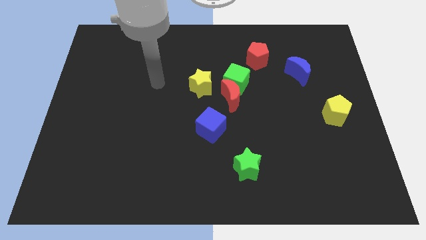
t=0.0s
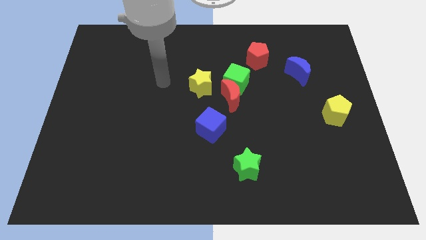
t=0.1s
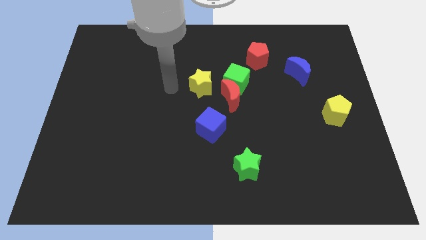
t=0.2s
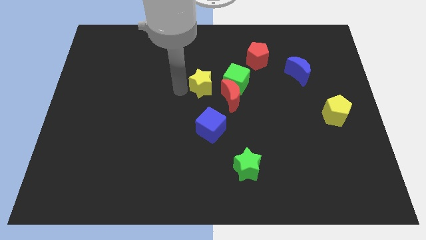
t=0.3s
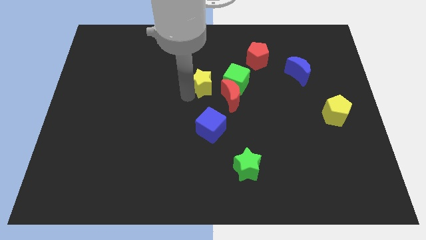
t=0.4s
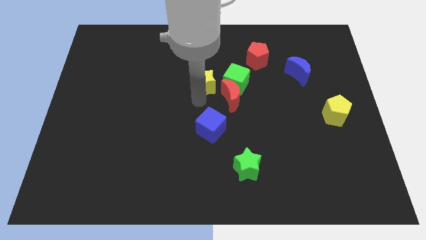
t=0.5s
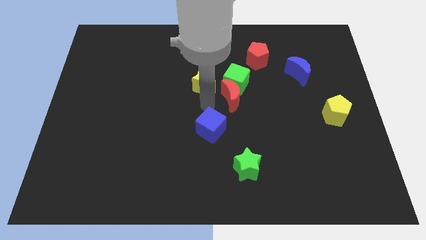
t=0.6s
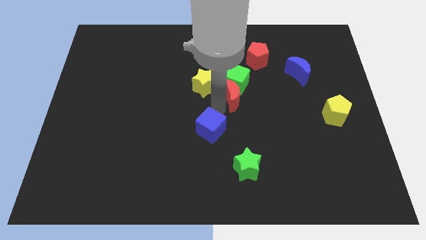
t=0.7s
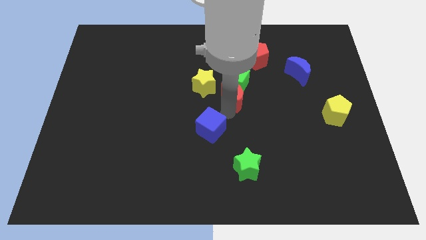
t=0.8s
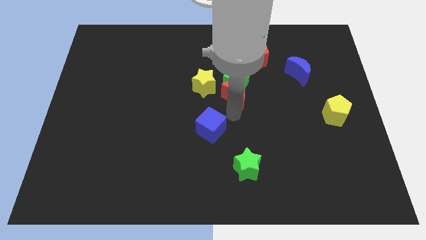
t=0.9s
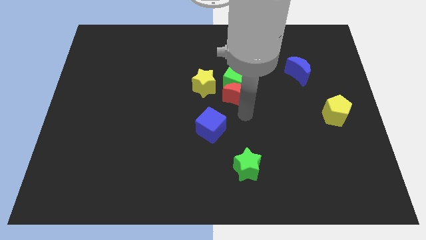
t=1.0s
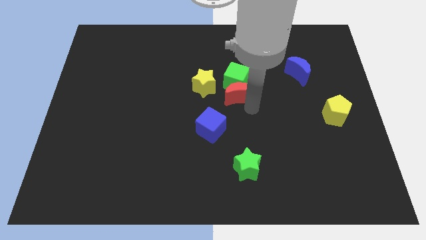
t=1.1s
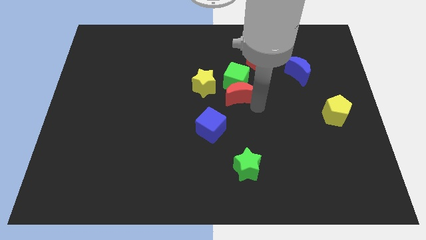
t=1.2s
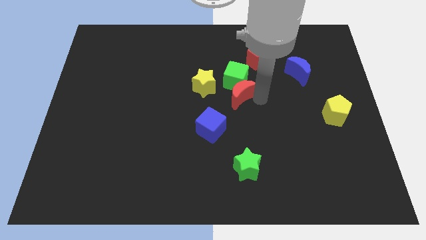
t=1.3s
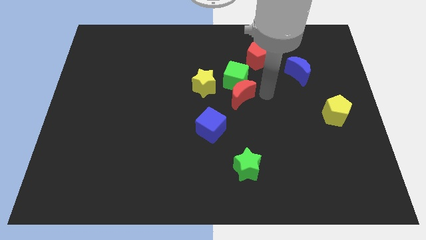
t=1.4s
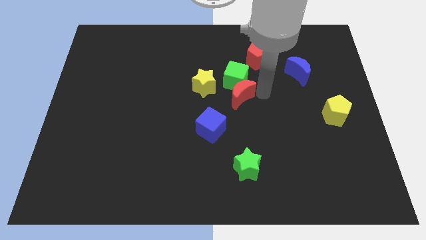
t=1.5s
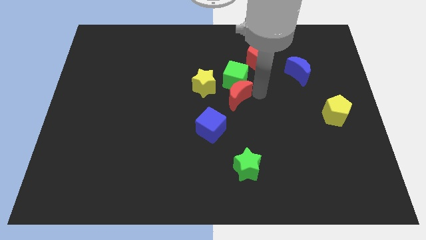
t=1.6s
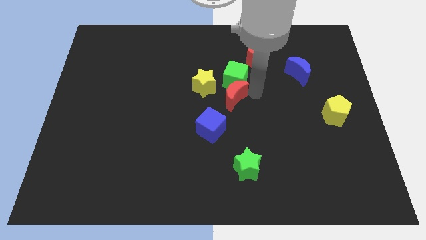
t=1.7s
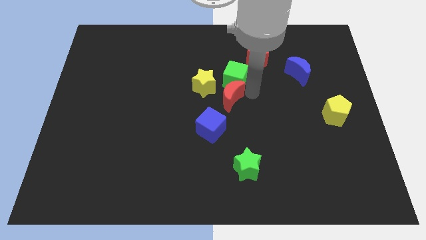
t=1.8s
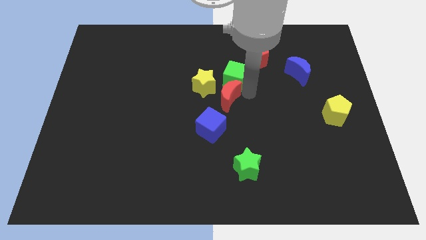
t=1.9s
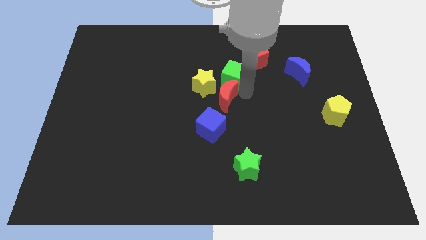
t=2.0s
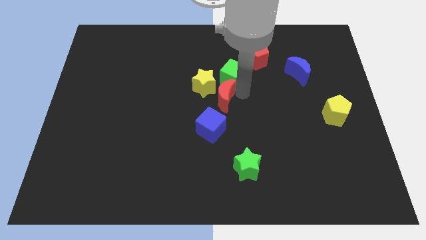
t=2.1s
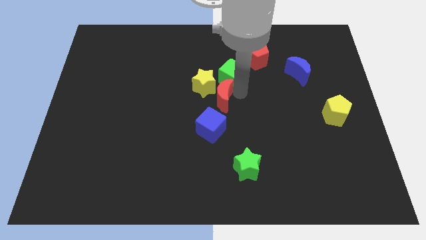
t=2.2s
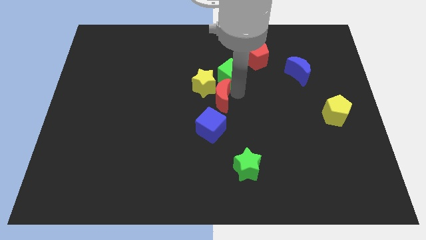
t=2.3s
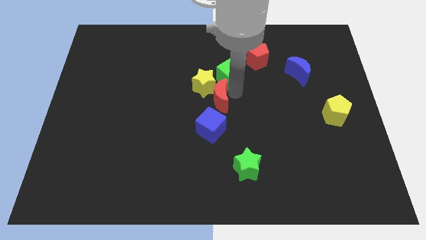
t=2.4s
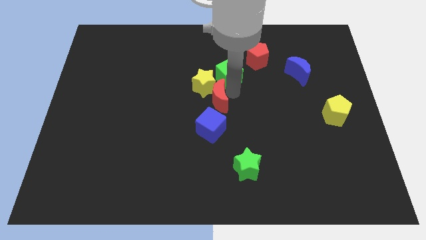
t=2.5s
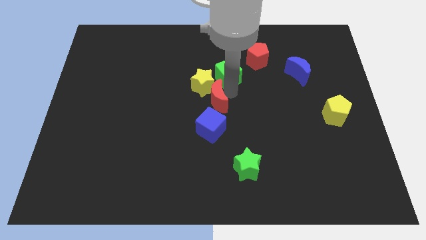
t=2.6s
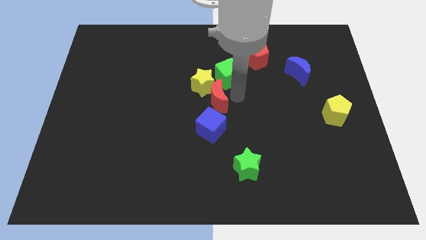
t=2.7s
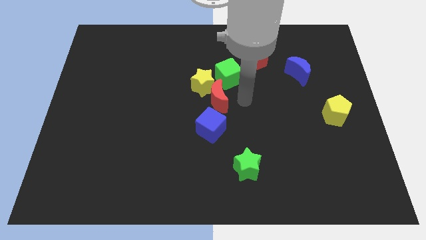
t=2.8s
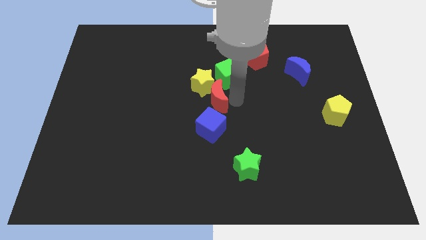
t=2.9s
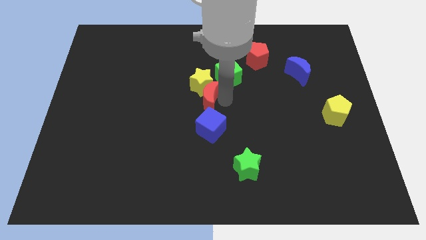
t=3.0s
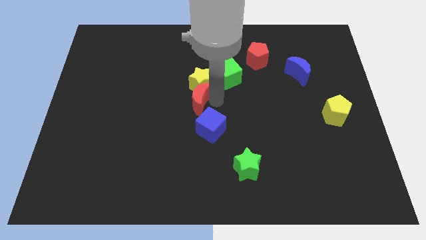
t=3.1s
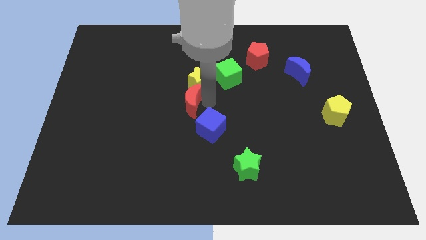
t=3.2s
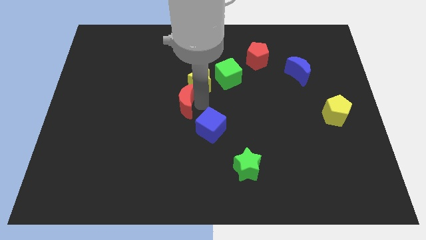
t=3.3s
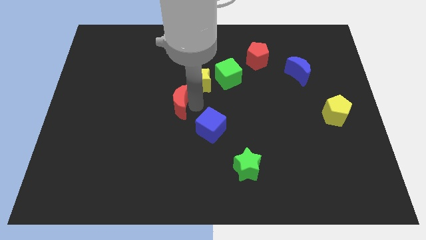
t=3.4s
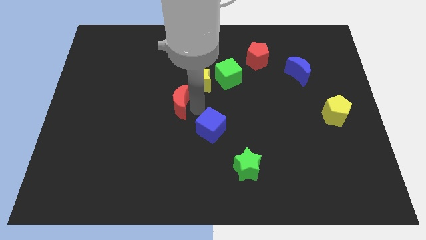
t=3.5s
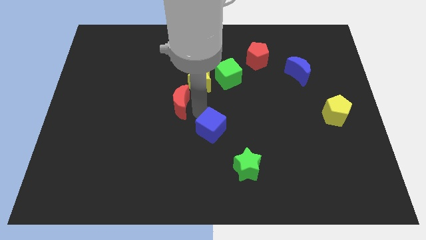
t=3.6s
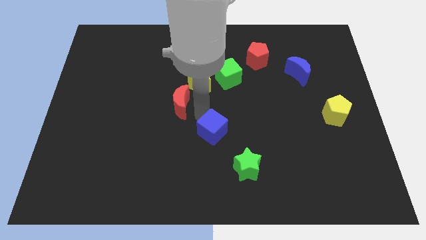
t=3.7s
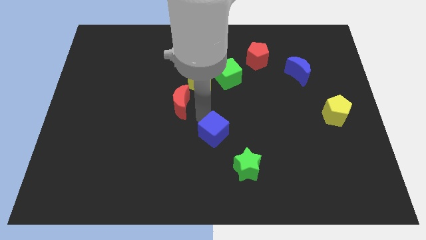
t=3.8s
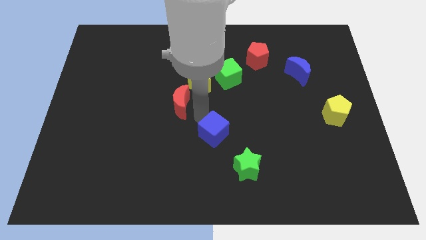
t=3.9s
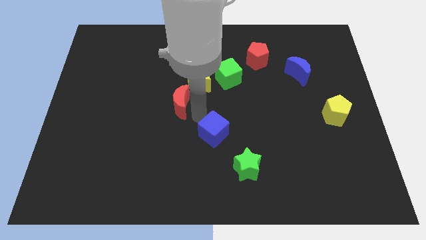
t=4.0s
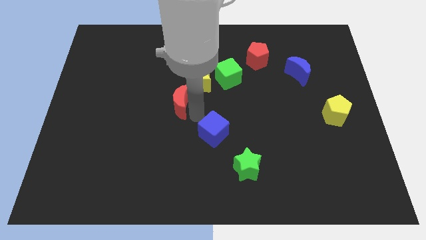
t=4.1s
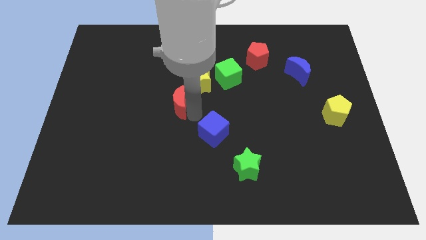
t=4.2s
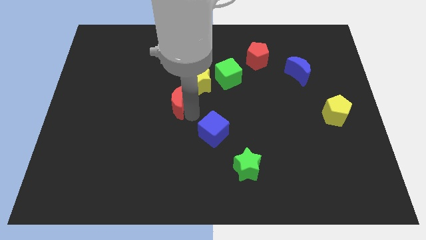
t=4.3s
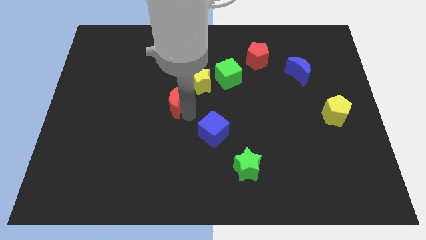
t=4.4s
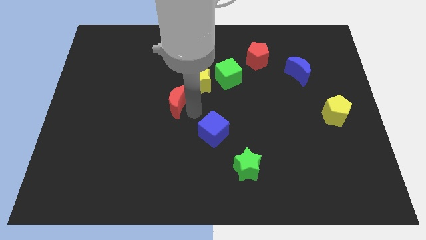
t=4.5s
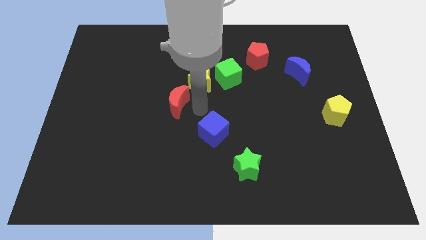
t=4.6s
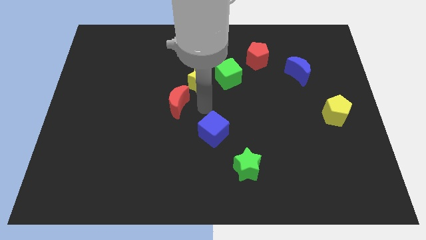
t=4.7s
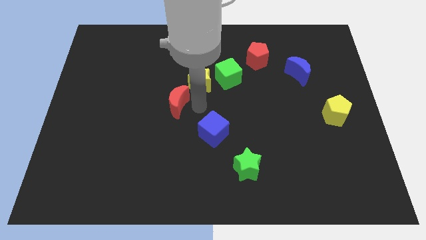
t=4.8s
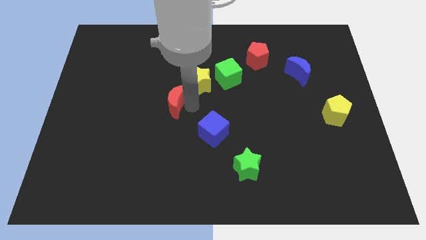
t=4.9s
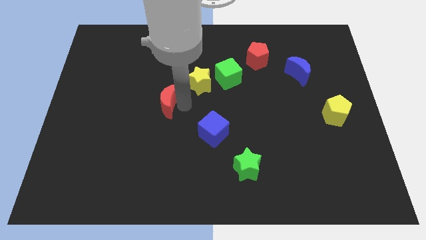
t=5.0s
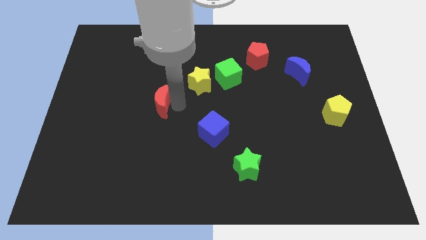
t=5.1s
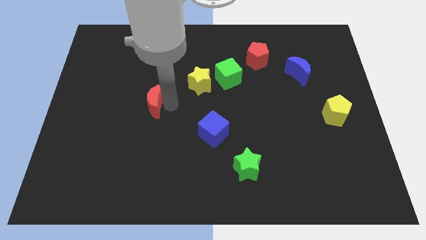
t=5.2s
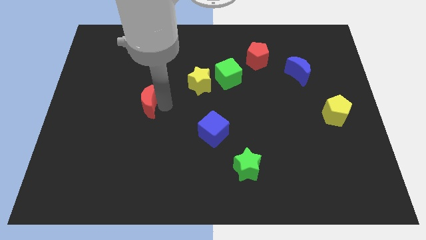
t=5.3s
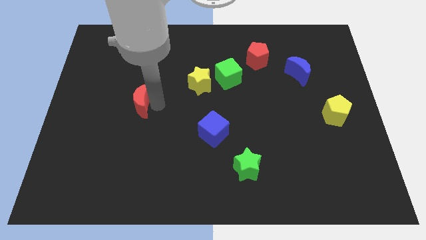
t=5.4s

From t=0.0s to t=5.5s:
slide the red moon to the left

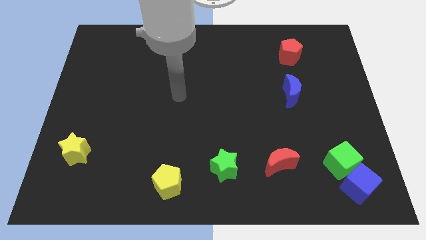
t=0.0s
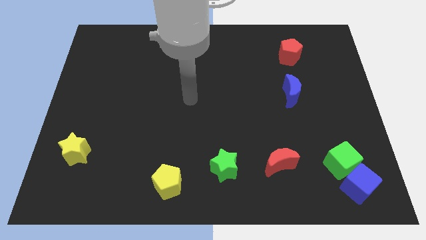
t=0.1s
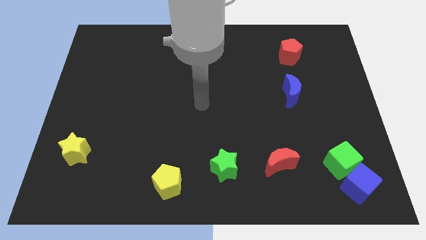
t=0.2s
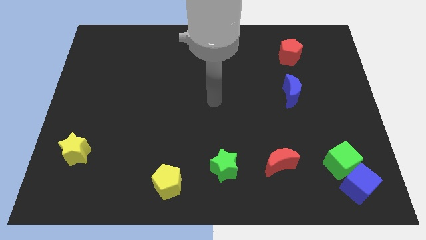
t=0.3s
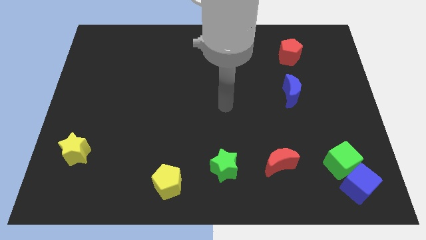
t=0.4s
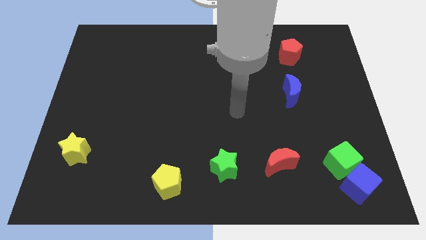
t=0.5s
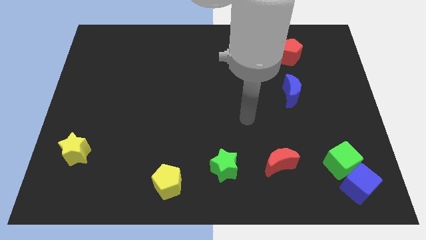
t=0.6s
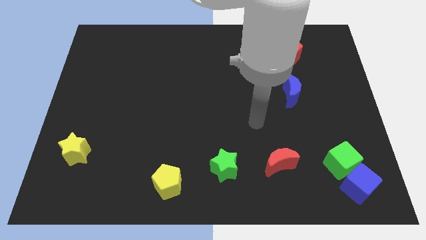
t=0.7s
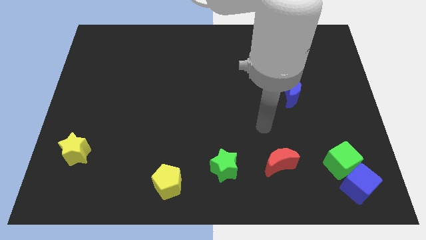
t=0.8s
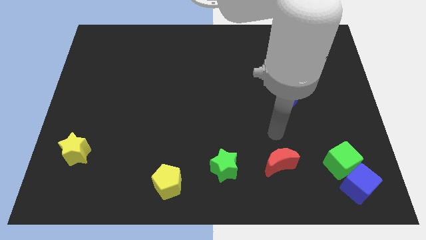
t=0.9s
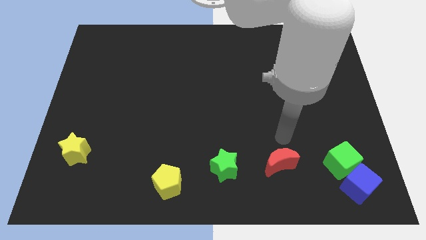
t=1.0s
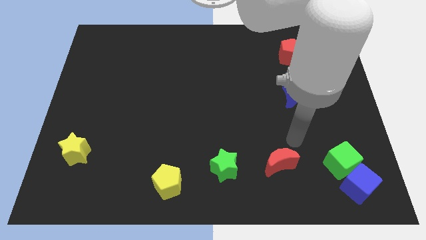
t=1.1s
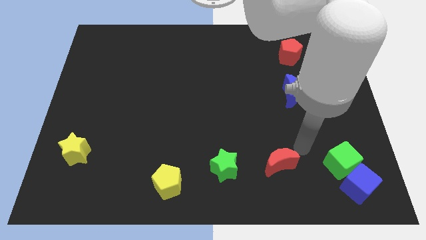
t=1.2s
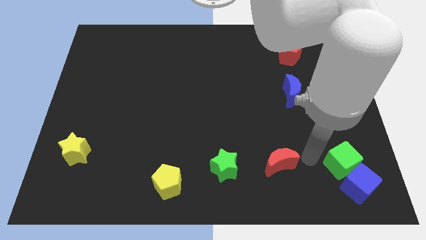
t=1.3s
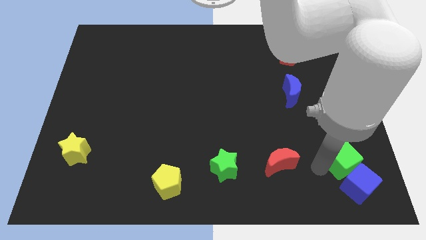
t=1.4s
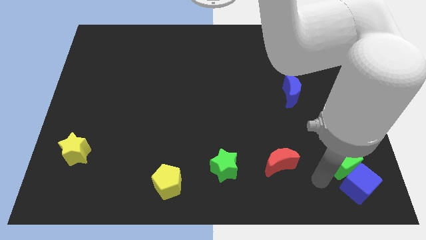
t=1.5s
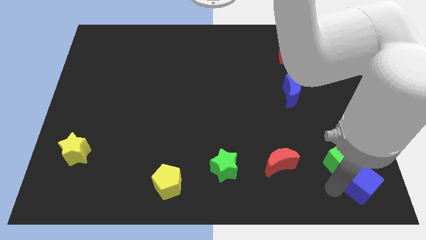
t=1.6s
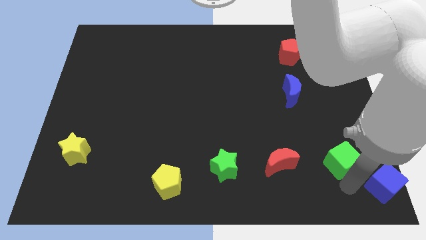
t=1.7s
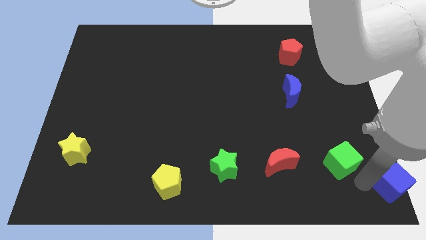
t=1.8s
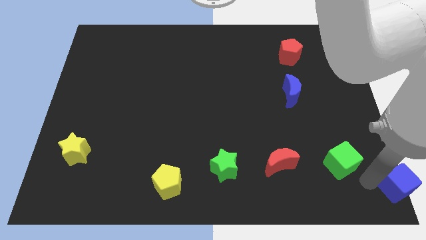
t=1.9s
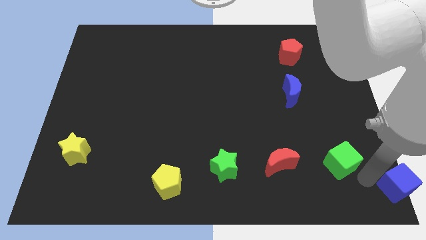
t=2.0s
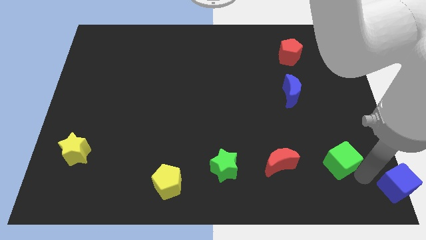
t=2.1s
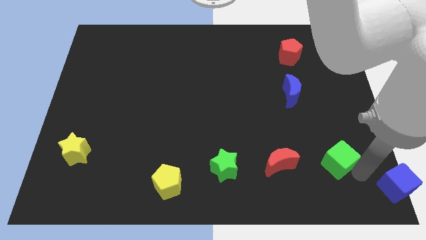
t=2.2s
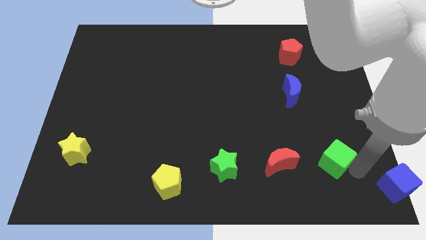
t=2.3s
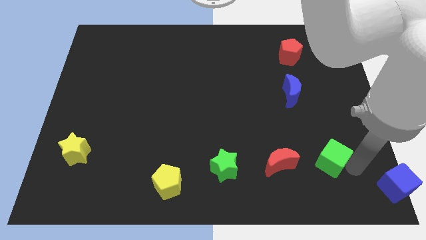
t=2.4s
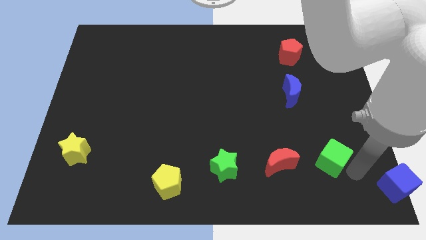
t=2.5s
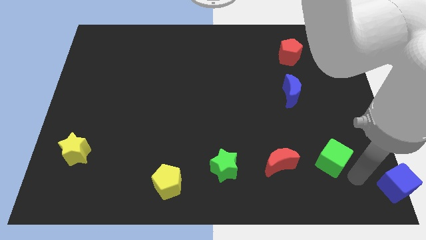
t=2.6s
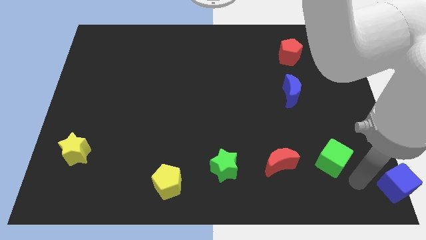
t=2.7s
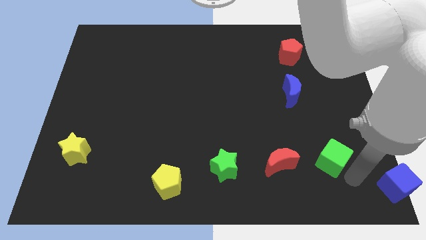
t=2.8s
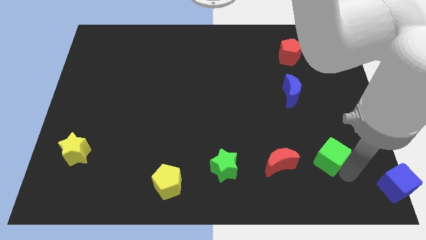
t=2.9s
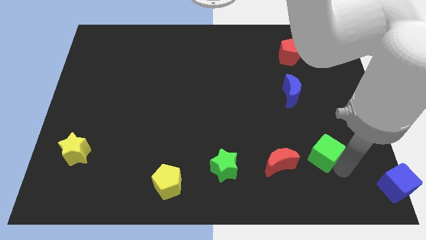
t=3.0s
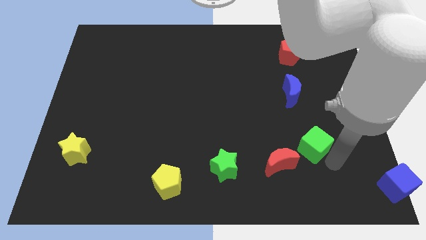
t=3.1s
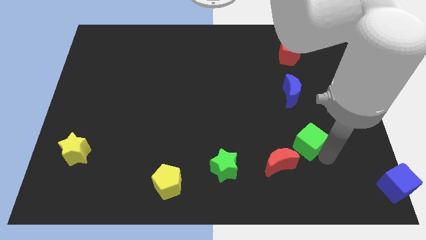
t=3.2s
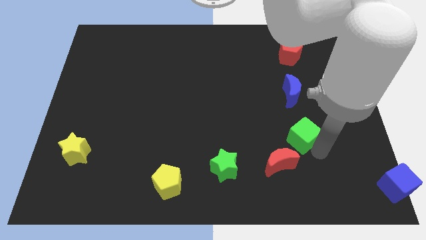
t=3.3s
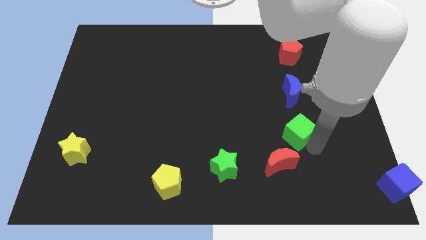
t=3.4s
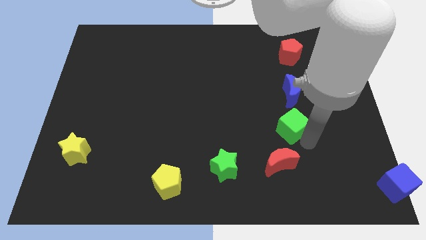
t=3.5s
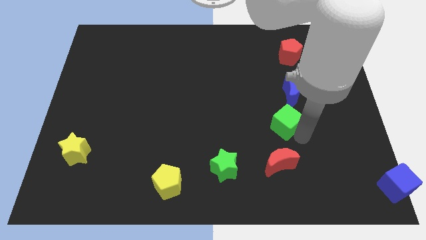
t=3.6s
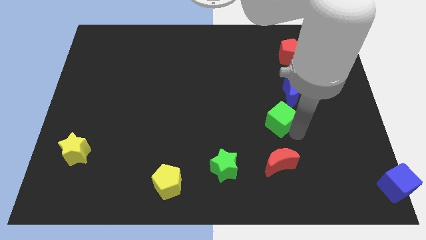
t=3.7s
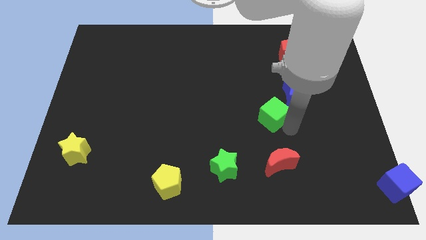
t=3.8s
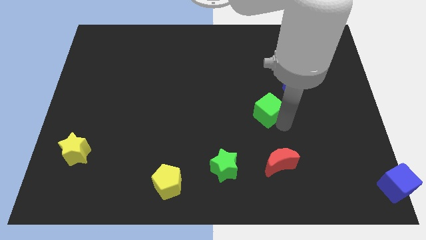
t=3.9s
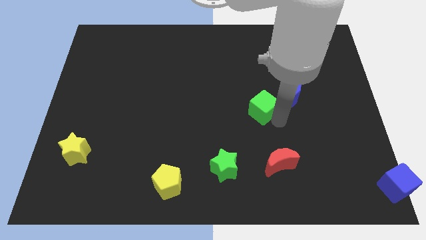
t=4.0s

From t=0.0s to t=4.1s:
push the green cube up and to the left
